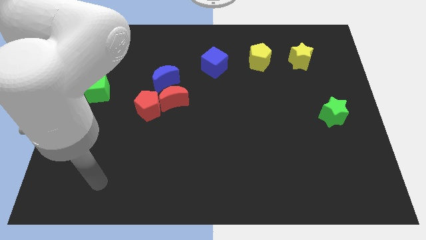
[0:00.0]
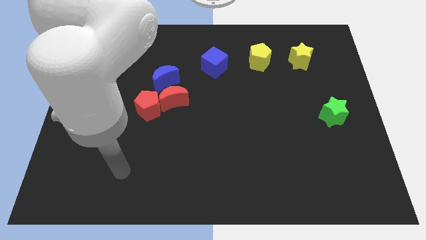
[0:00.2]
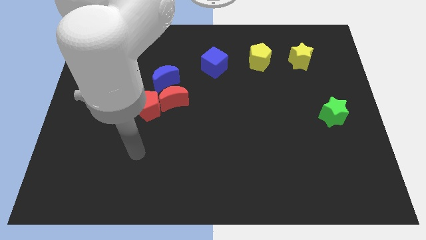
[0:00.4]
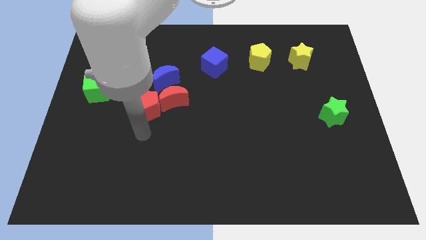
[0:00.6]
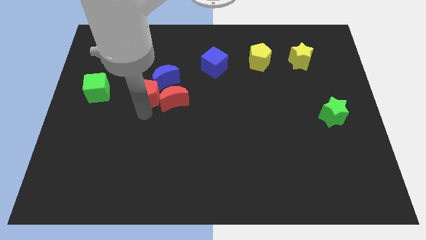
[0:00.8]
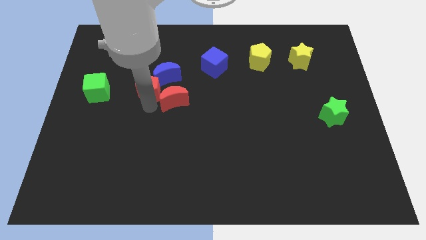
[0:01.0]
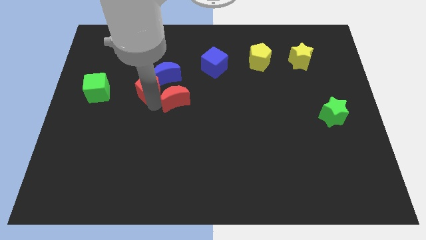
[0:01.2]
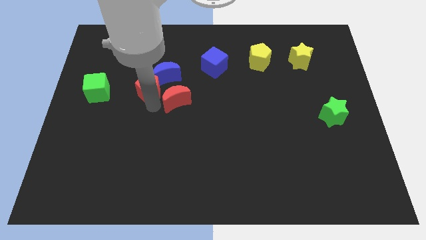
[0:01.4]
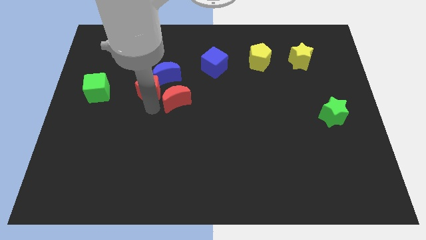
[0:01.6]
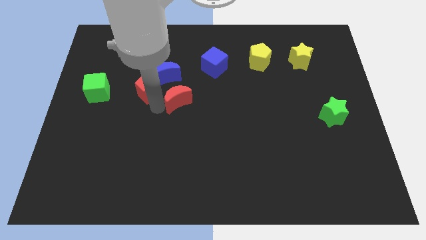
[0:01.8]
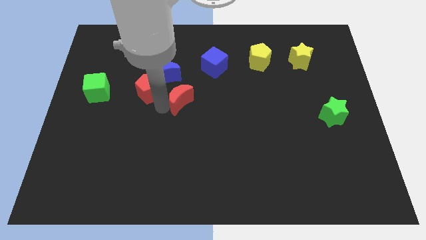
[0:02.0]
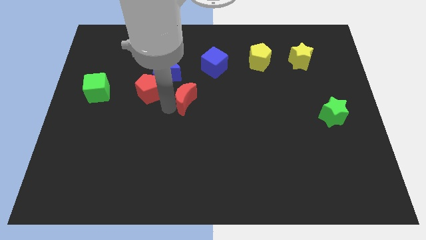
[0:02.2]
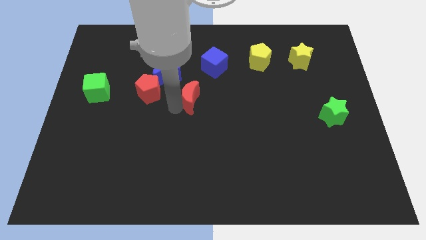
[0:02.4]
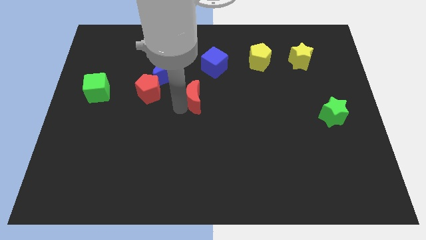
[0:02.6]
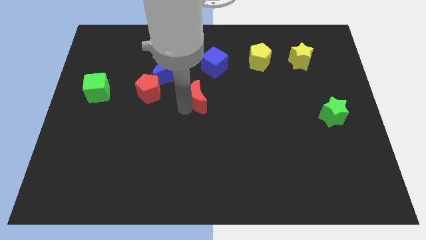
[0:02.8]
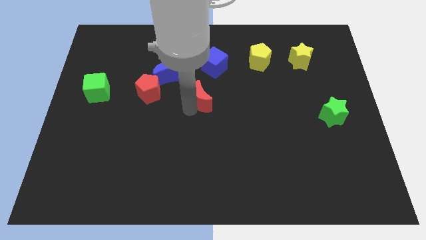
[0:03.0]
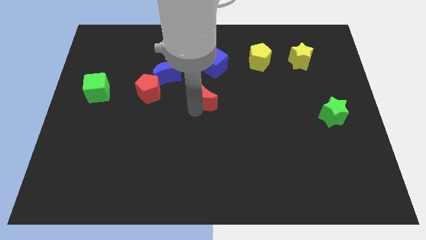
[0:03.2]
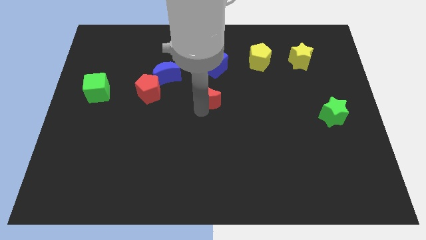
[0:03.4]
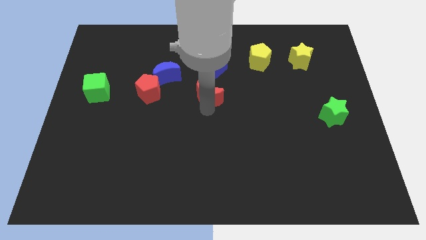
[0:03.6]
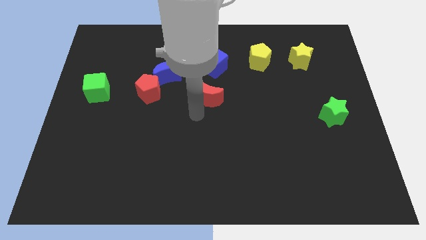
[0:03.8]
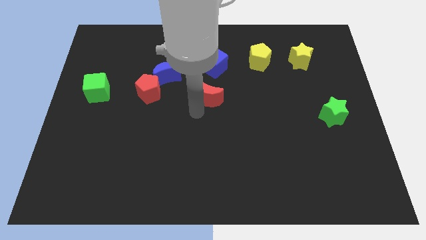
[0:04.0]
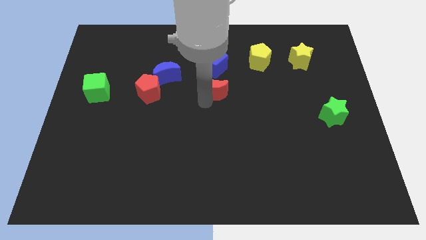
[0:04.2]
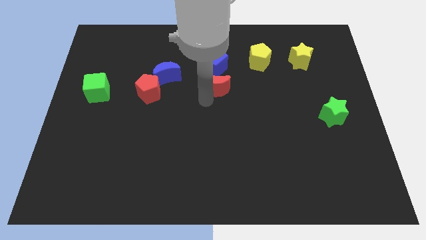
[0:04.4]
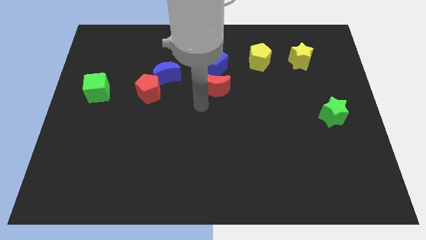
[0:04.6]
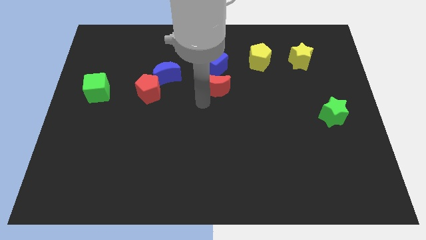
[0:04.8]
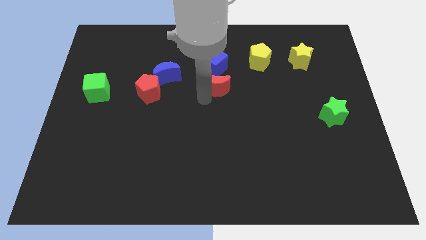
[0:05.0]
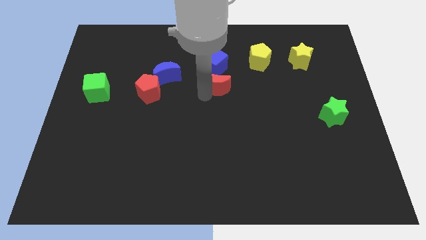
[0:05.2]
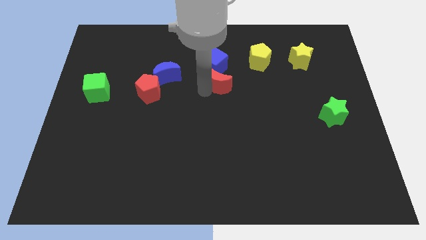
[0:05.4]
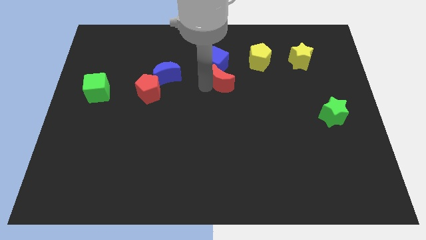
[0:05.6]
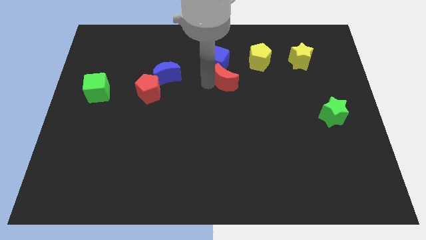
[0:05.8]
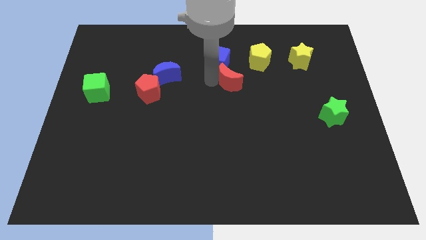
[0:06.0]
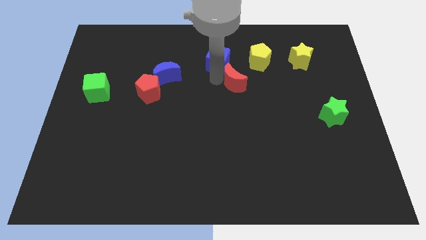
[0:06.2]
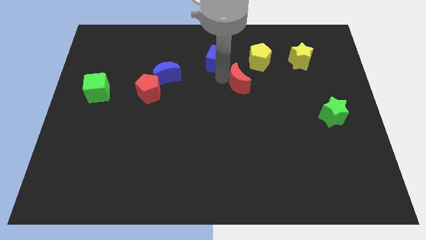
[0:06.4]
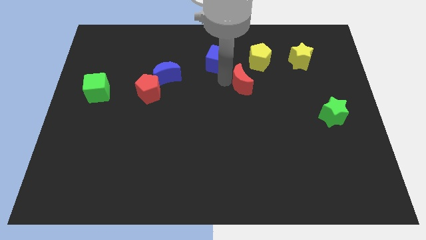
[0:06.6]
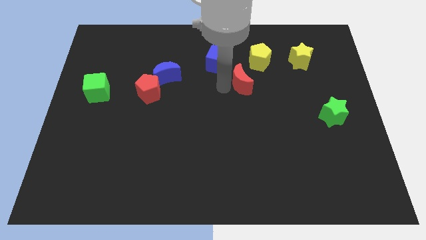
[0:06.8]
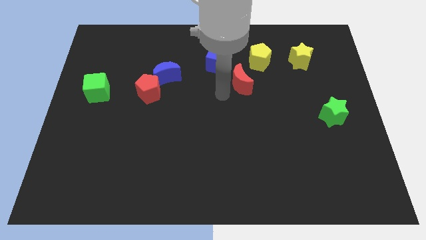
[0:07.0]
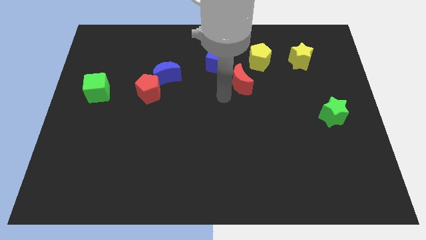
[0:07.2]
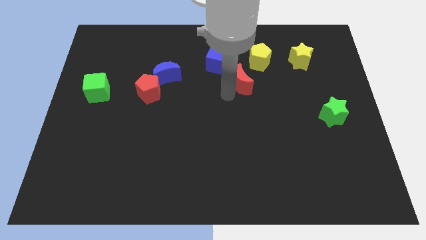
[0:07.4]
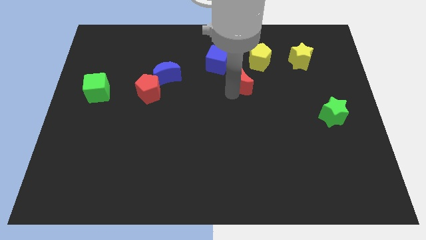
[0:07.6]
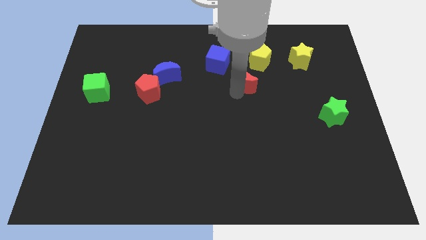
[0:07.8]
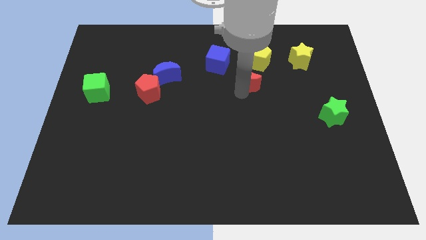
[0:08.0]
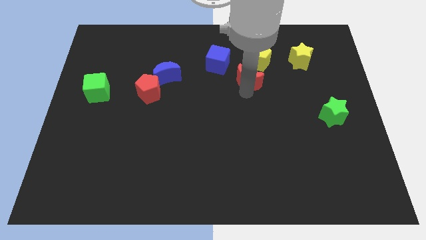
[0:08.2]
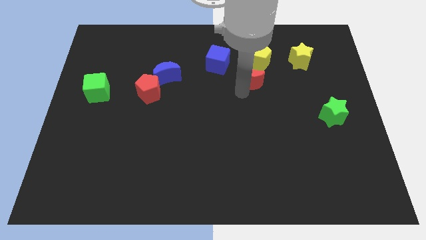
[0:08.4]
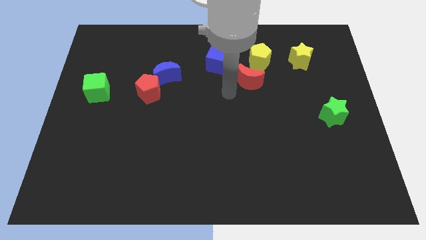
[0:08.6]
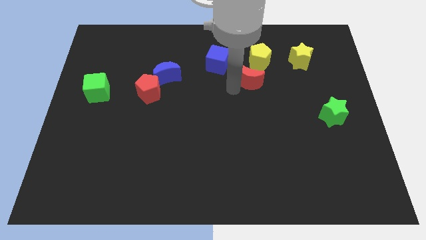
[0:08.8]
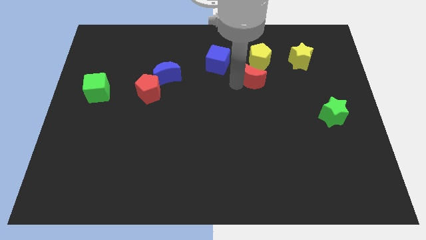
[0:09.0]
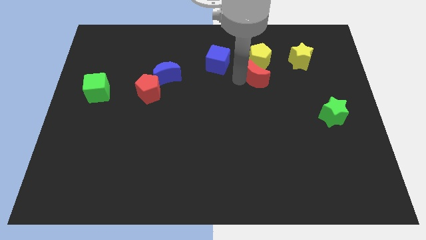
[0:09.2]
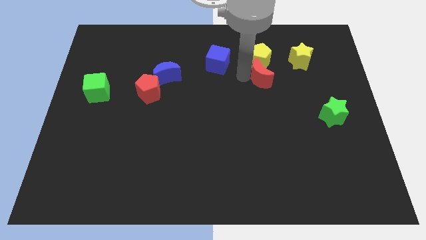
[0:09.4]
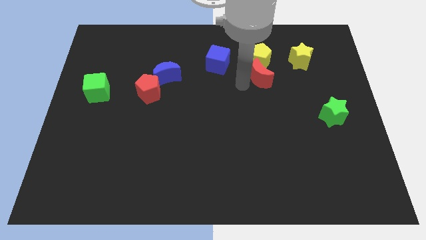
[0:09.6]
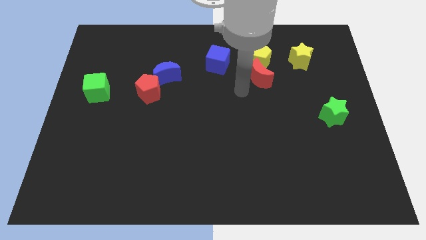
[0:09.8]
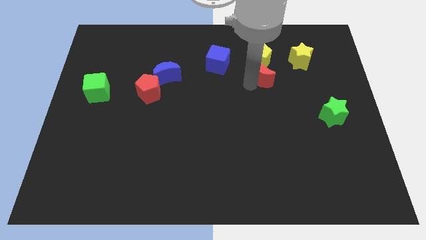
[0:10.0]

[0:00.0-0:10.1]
put the red moon to the right side of the blue cube

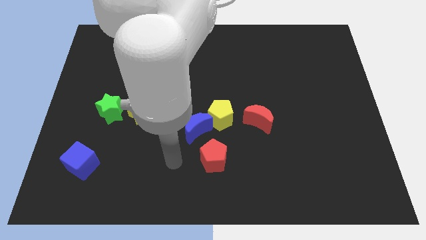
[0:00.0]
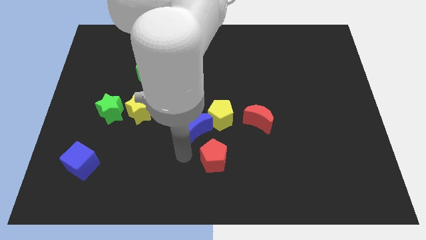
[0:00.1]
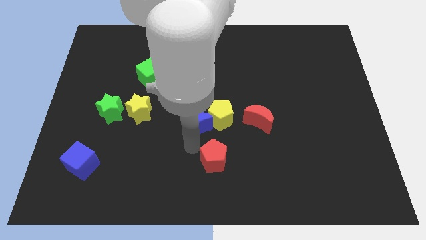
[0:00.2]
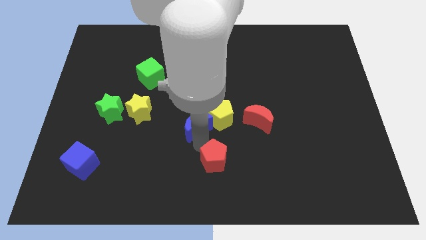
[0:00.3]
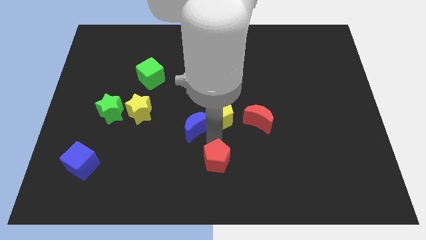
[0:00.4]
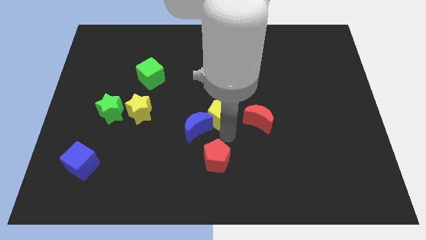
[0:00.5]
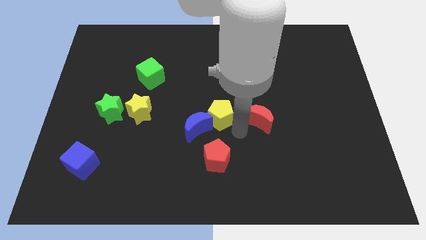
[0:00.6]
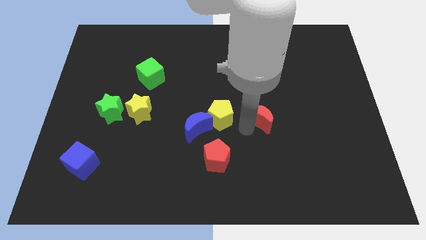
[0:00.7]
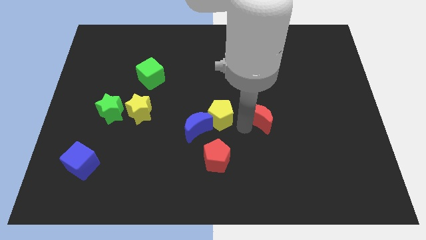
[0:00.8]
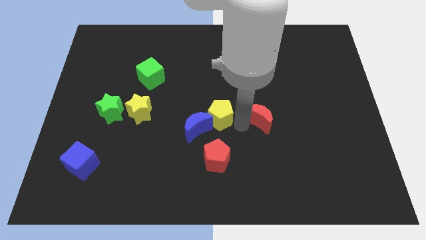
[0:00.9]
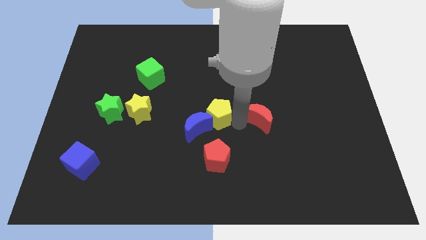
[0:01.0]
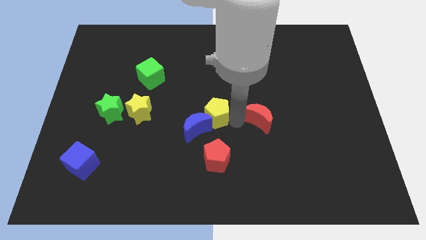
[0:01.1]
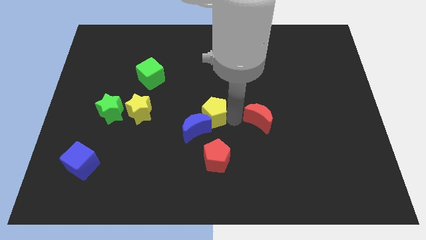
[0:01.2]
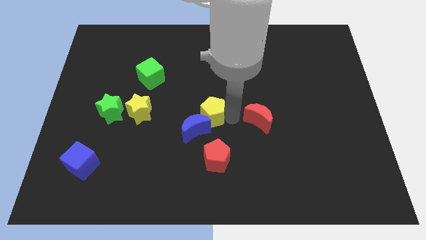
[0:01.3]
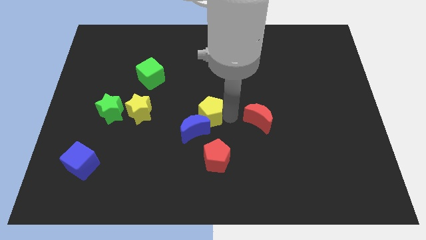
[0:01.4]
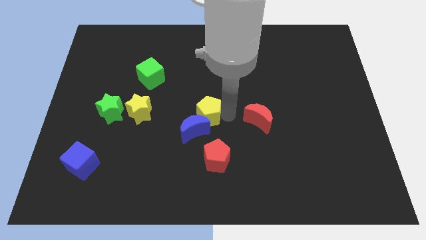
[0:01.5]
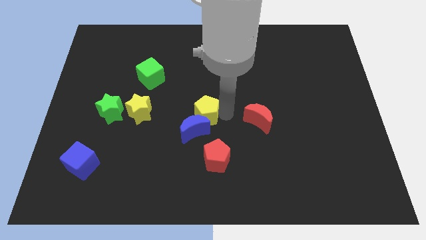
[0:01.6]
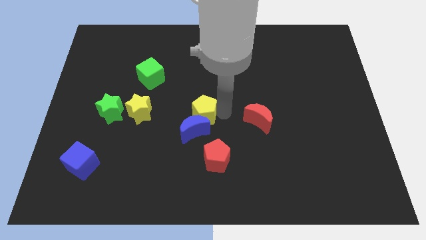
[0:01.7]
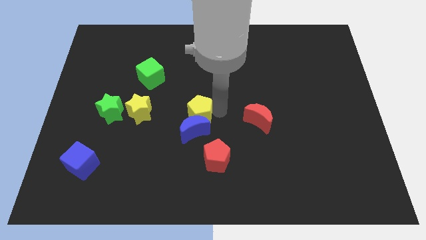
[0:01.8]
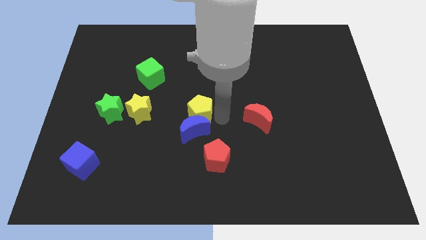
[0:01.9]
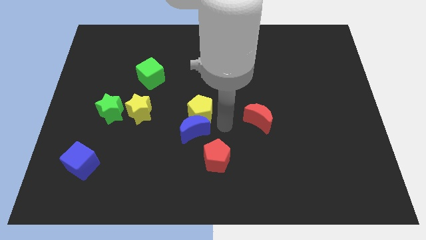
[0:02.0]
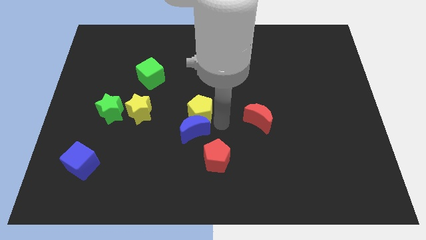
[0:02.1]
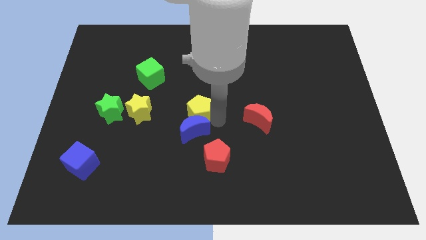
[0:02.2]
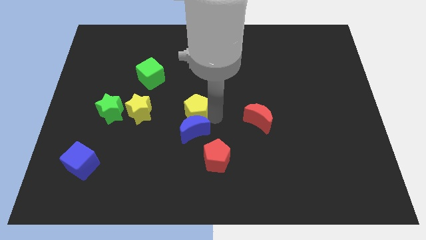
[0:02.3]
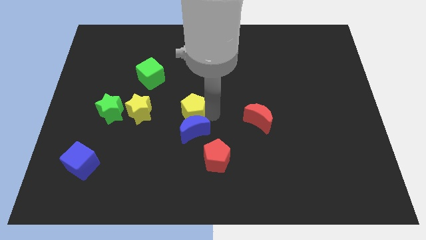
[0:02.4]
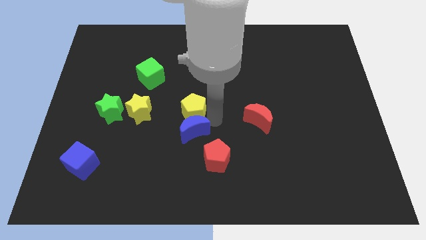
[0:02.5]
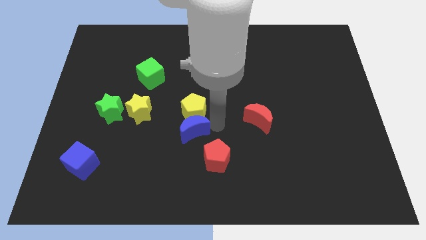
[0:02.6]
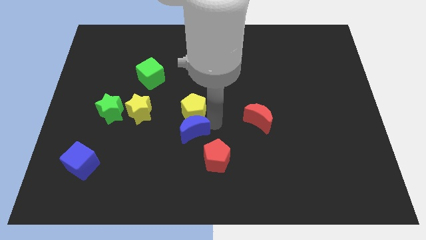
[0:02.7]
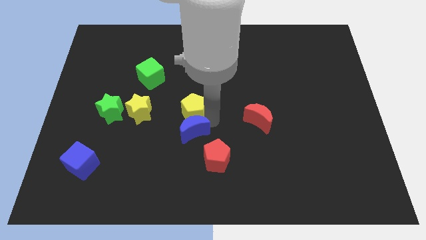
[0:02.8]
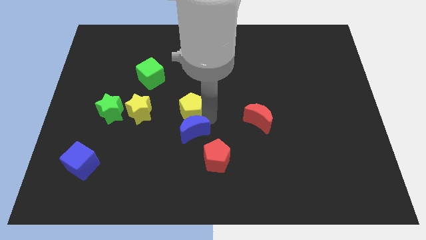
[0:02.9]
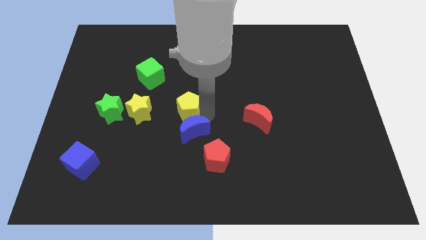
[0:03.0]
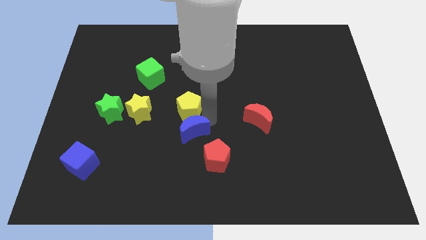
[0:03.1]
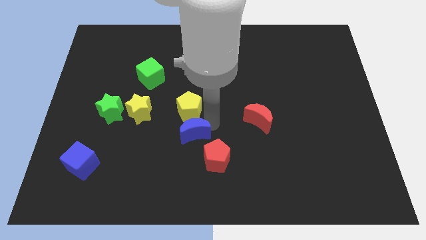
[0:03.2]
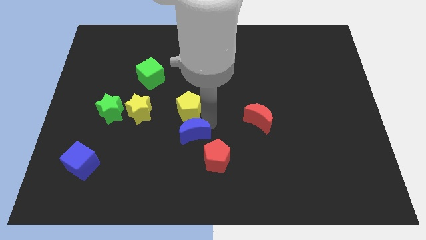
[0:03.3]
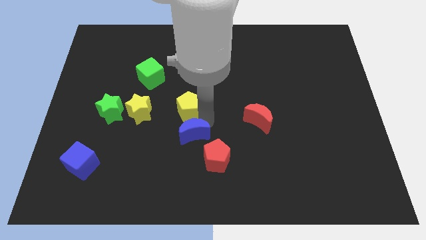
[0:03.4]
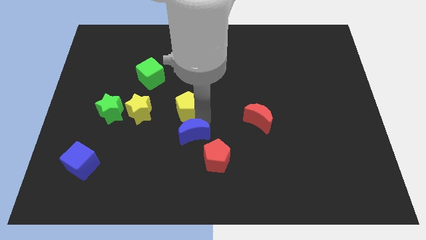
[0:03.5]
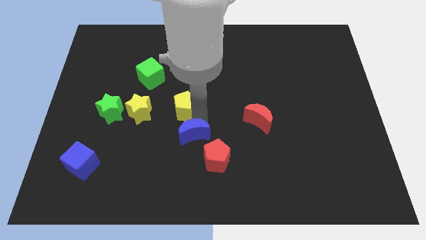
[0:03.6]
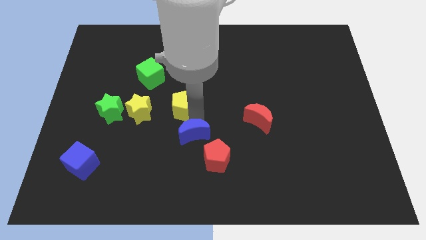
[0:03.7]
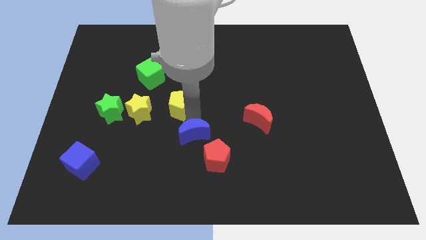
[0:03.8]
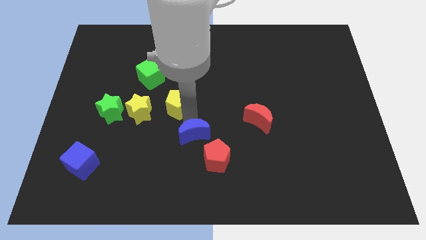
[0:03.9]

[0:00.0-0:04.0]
push the yellow pentagon diagonally up and to the right of the yellow star
